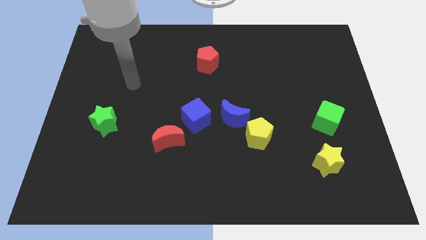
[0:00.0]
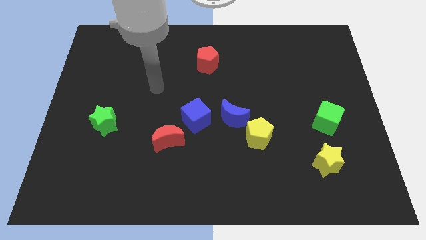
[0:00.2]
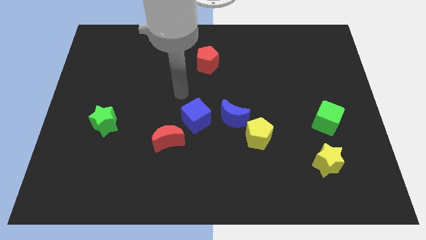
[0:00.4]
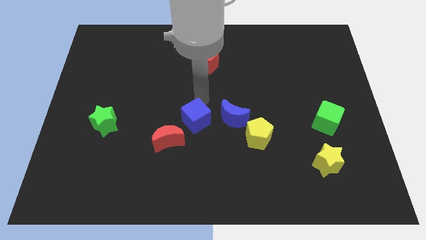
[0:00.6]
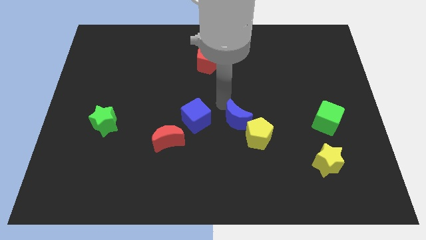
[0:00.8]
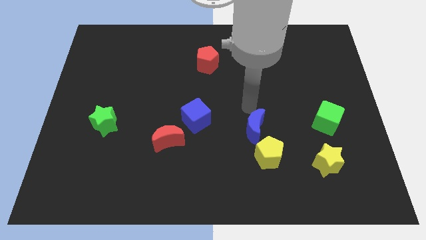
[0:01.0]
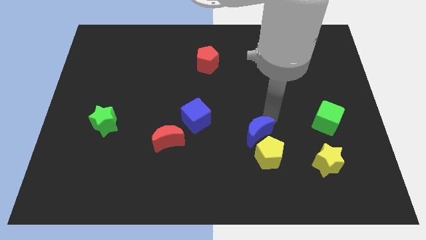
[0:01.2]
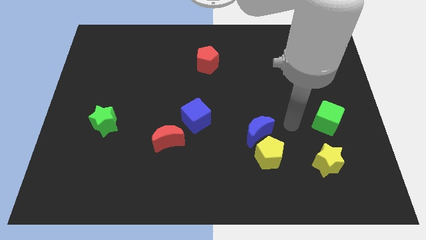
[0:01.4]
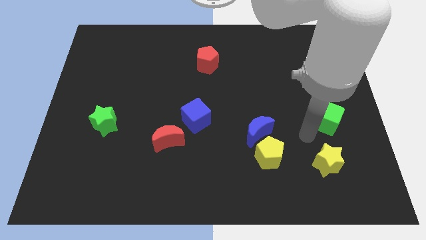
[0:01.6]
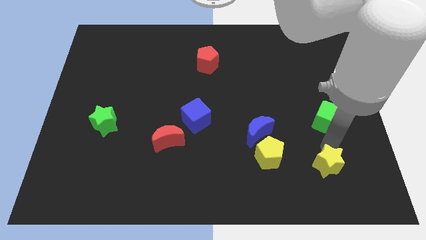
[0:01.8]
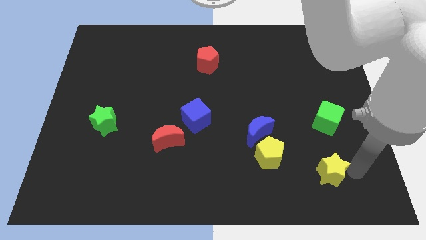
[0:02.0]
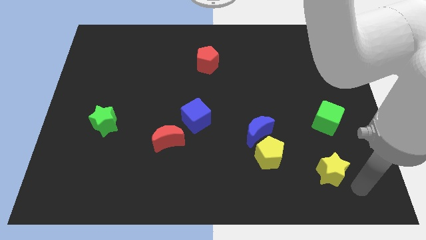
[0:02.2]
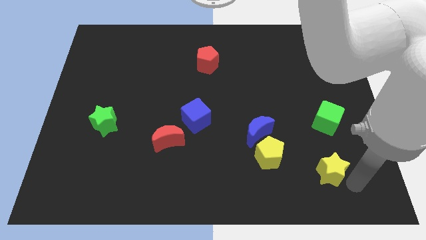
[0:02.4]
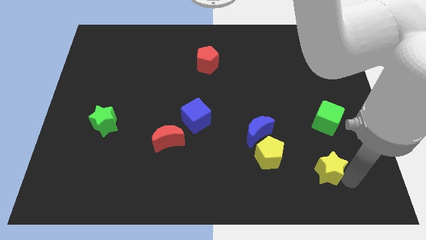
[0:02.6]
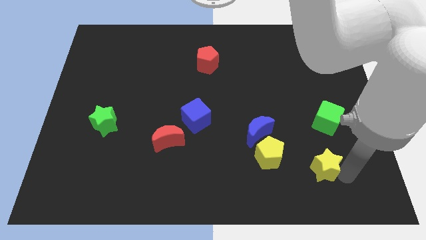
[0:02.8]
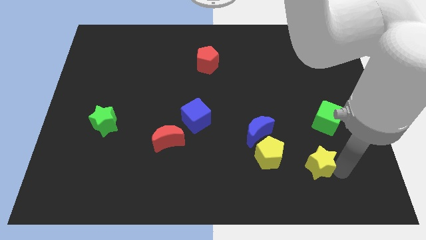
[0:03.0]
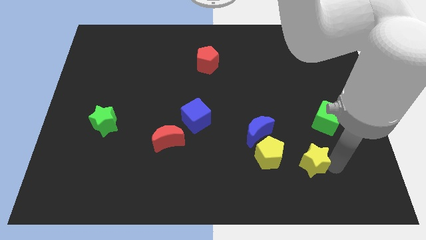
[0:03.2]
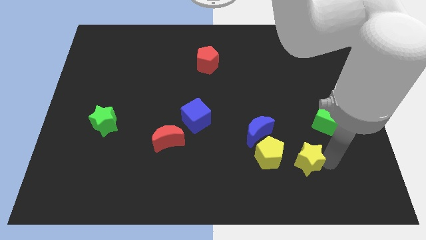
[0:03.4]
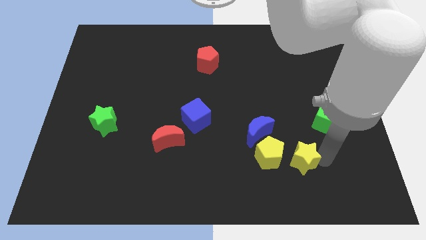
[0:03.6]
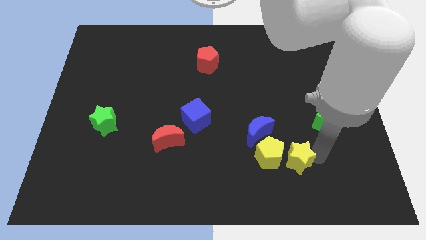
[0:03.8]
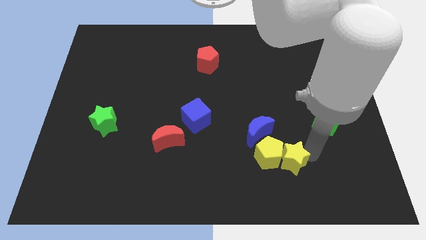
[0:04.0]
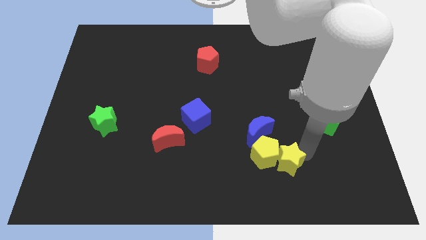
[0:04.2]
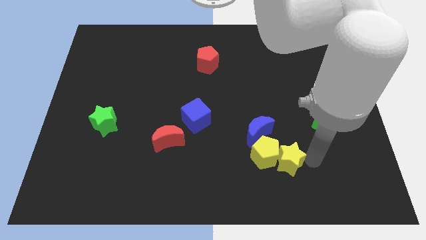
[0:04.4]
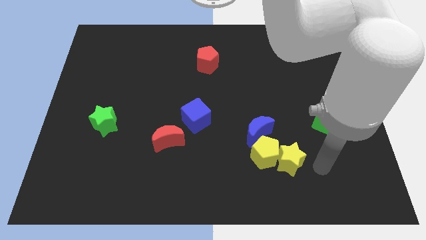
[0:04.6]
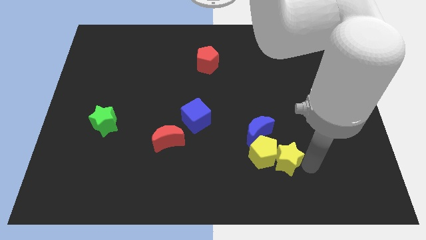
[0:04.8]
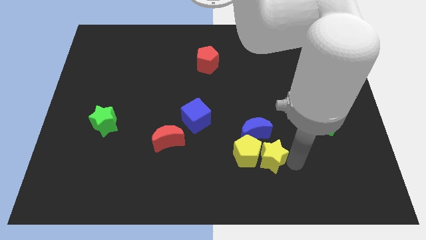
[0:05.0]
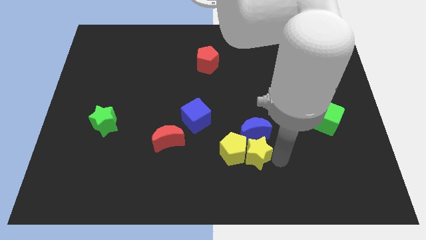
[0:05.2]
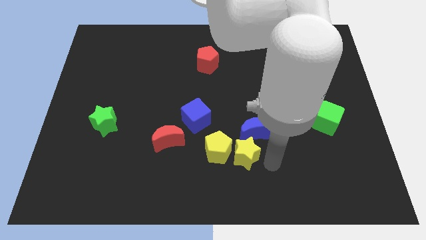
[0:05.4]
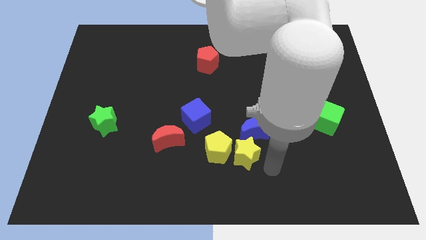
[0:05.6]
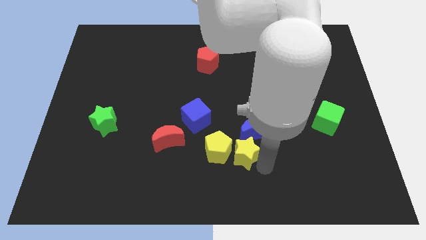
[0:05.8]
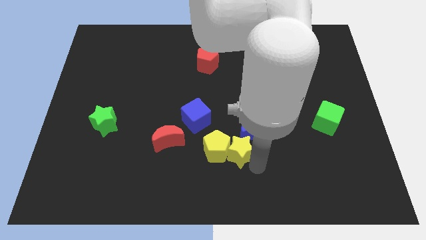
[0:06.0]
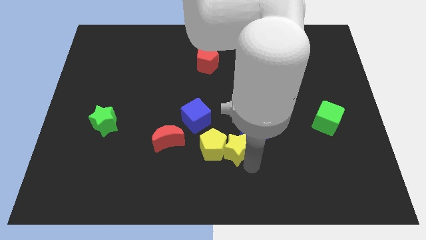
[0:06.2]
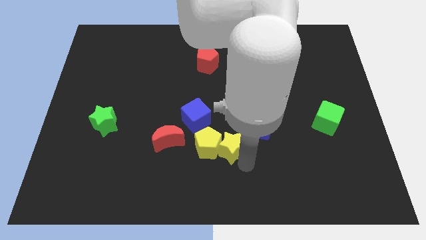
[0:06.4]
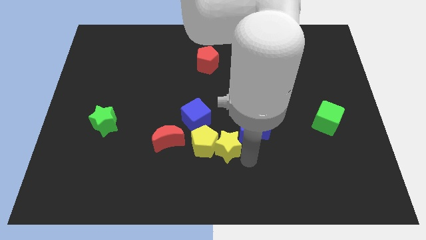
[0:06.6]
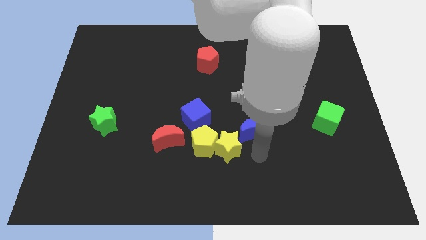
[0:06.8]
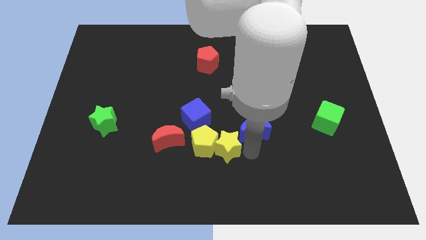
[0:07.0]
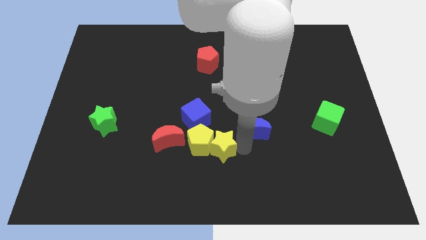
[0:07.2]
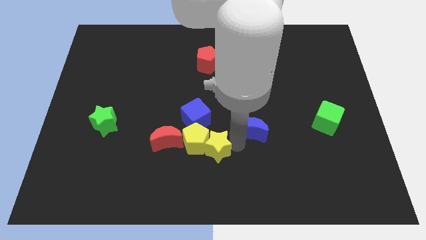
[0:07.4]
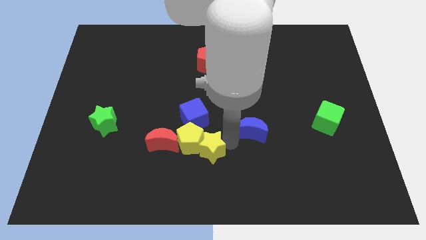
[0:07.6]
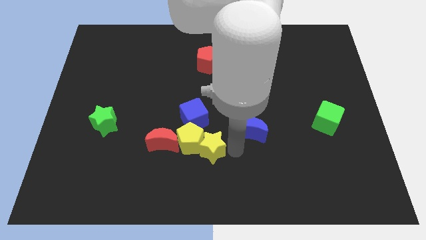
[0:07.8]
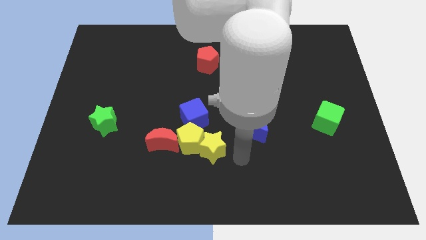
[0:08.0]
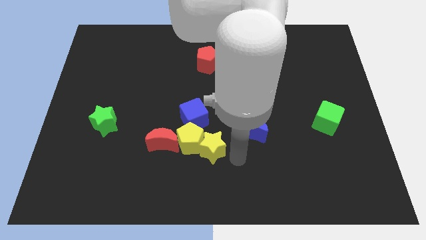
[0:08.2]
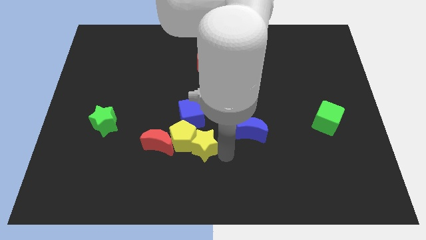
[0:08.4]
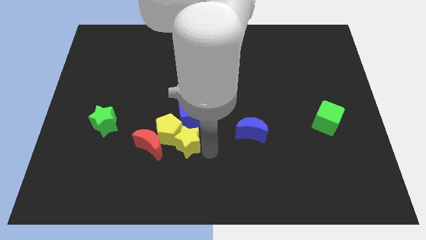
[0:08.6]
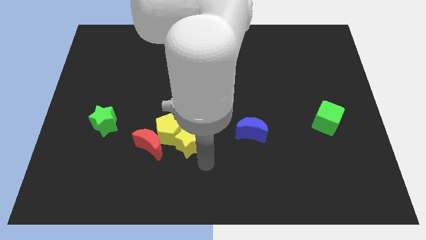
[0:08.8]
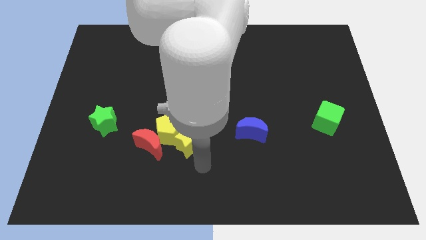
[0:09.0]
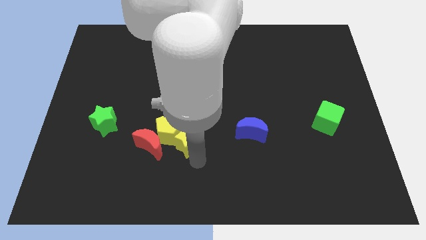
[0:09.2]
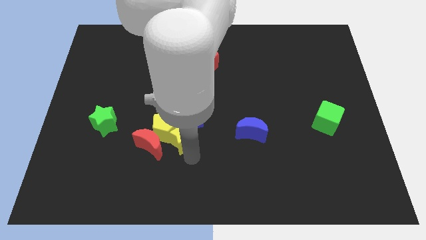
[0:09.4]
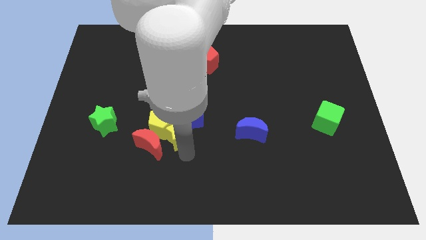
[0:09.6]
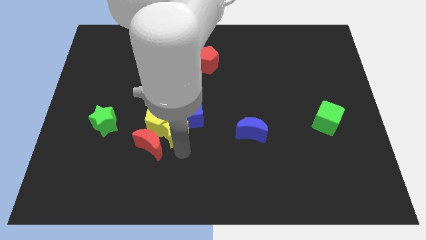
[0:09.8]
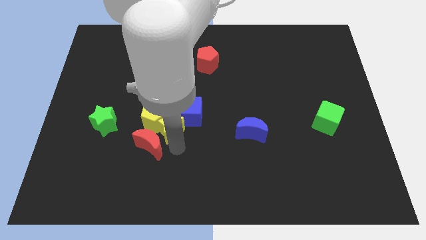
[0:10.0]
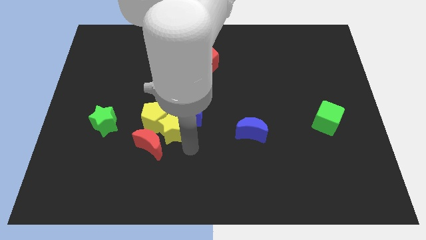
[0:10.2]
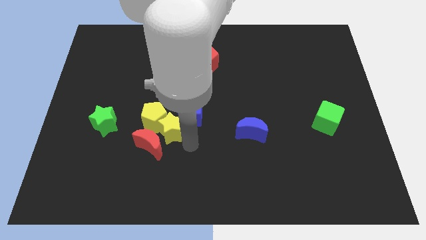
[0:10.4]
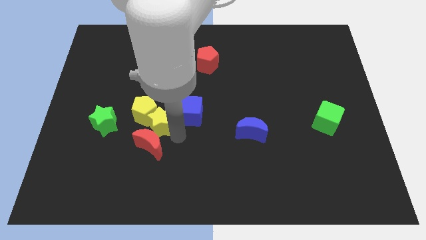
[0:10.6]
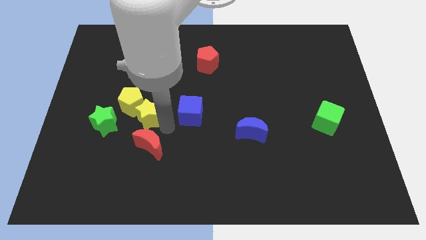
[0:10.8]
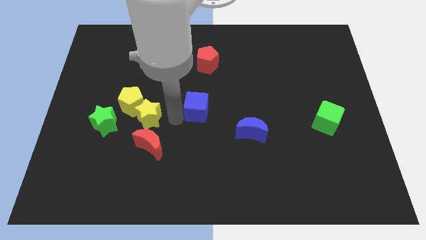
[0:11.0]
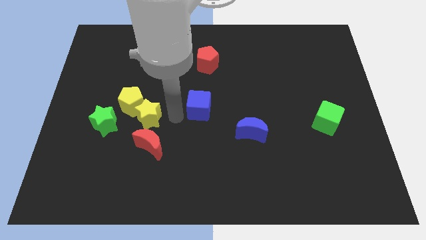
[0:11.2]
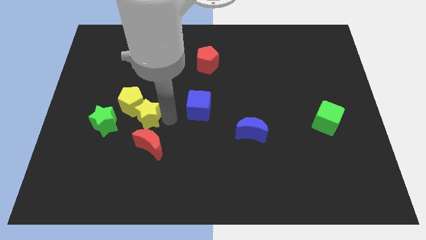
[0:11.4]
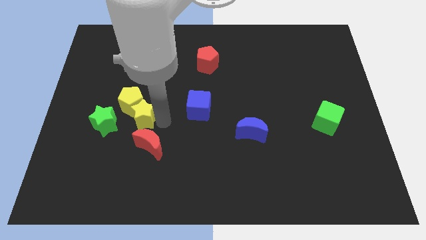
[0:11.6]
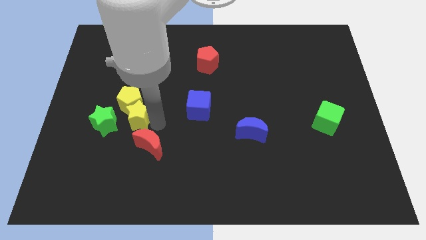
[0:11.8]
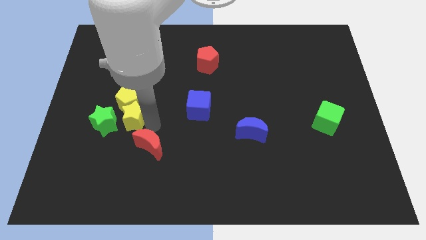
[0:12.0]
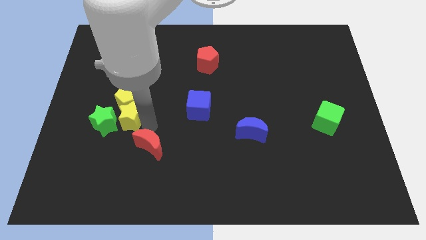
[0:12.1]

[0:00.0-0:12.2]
move the yellow star to the green star
